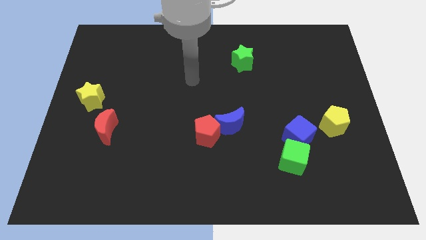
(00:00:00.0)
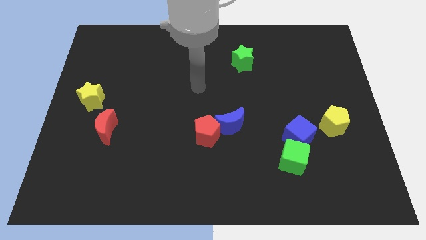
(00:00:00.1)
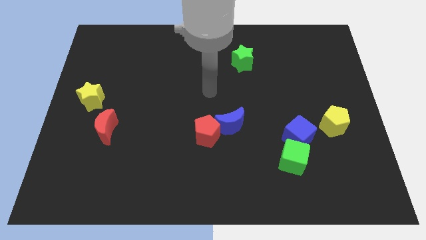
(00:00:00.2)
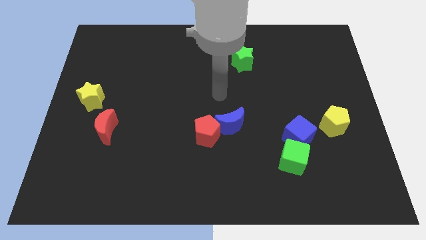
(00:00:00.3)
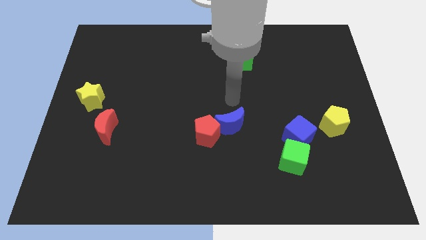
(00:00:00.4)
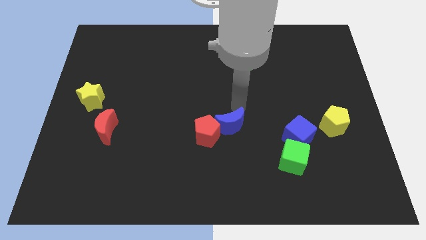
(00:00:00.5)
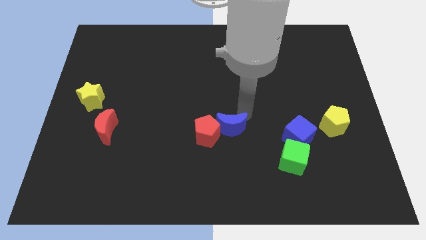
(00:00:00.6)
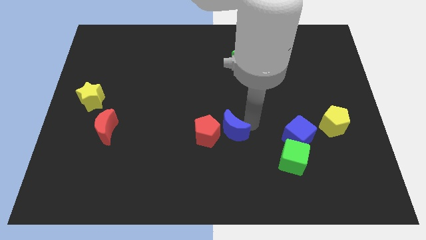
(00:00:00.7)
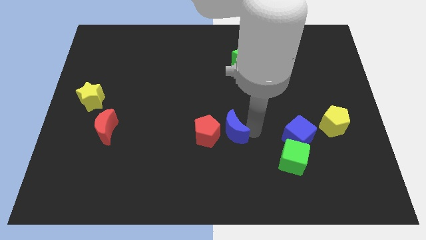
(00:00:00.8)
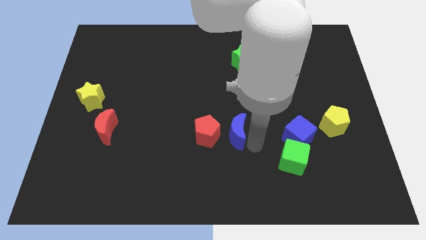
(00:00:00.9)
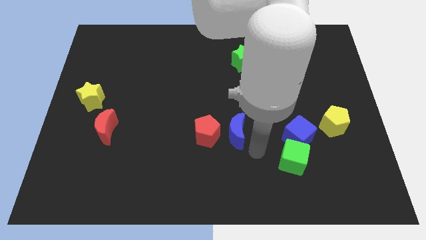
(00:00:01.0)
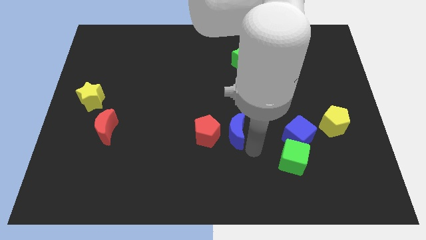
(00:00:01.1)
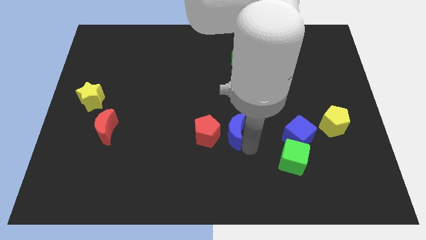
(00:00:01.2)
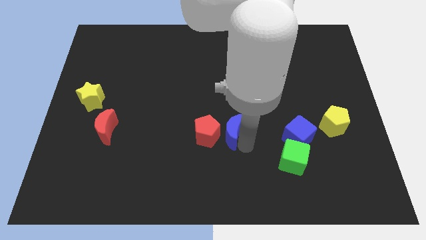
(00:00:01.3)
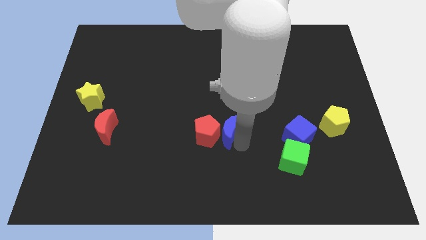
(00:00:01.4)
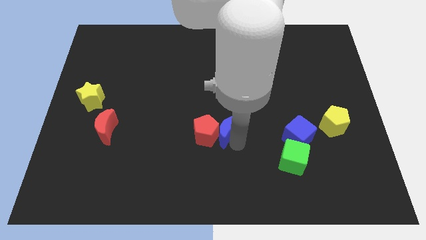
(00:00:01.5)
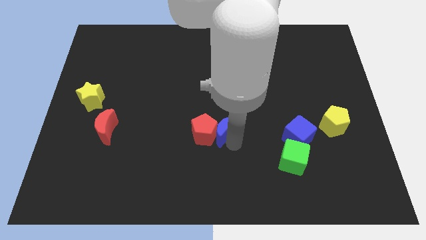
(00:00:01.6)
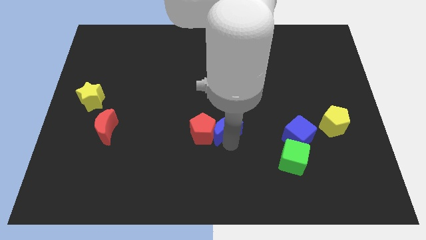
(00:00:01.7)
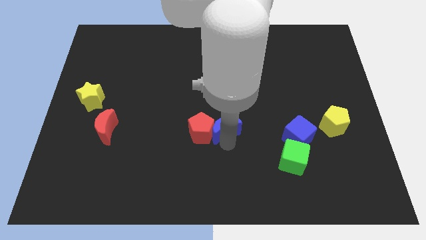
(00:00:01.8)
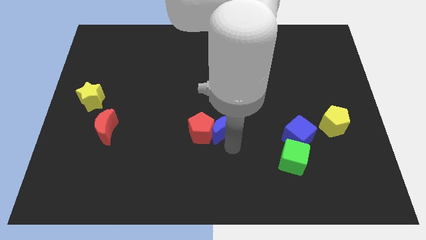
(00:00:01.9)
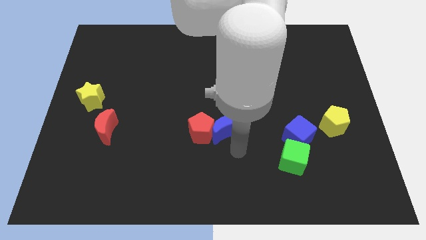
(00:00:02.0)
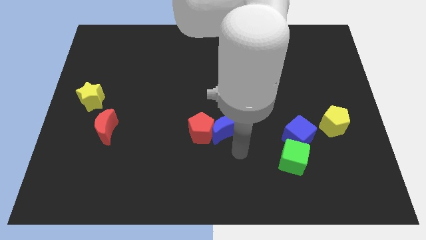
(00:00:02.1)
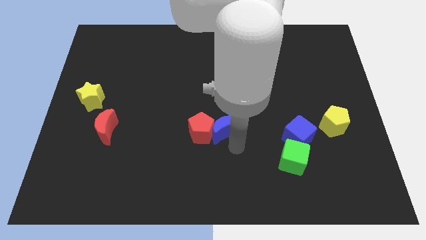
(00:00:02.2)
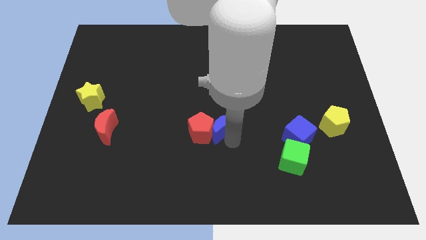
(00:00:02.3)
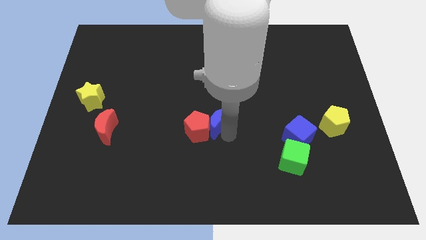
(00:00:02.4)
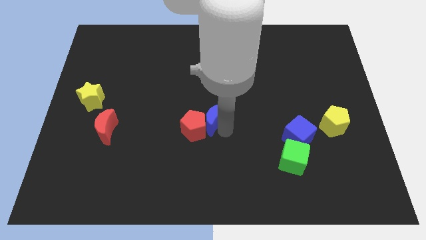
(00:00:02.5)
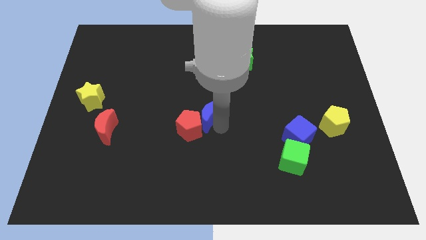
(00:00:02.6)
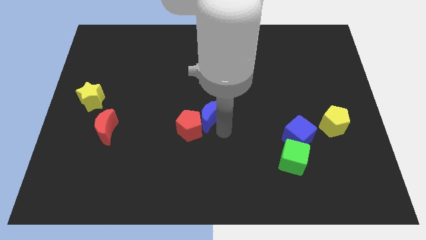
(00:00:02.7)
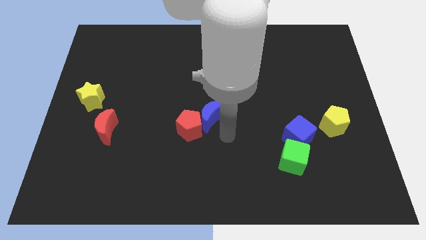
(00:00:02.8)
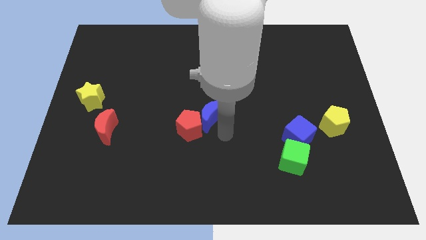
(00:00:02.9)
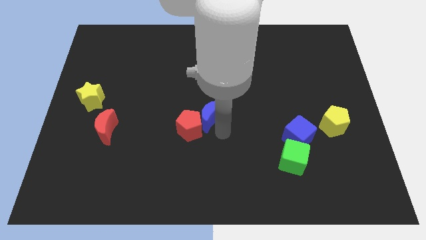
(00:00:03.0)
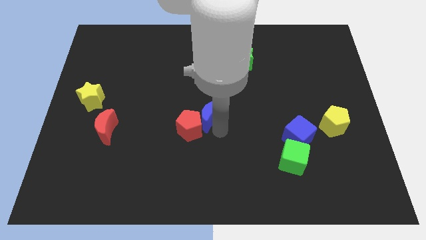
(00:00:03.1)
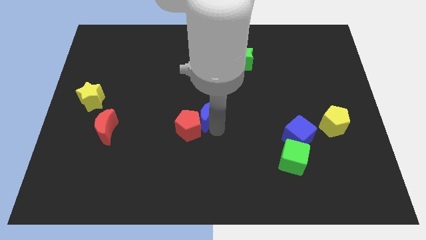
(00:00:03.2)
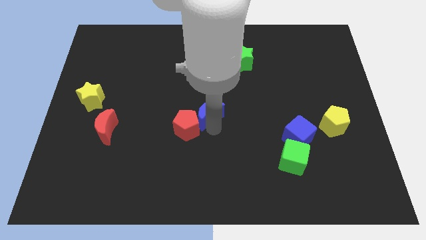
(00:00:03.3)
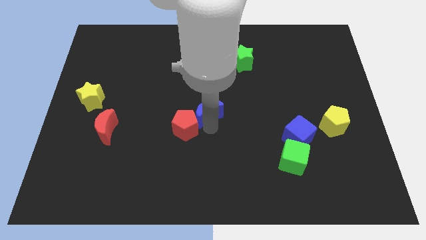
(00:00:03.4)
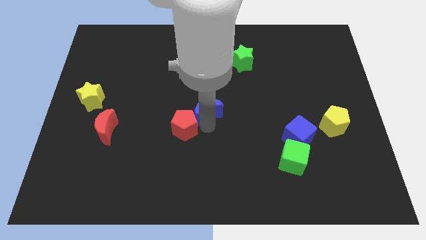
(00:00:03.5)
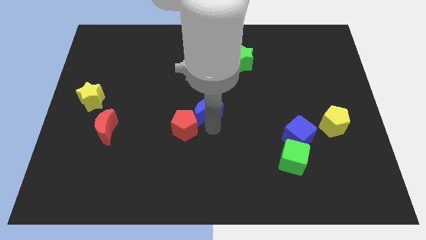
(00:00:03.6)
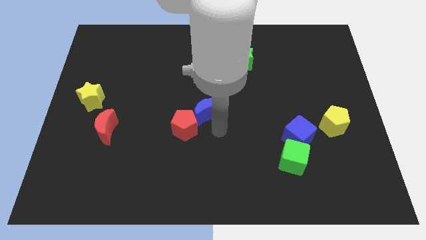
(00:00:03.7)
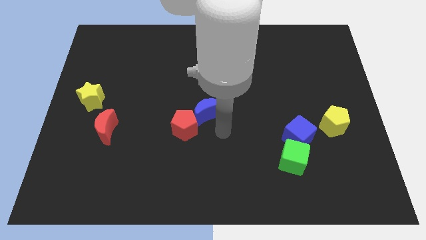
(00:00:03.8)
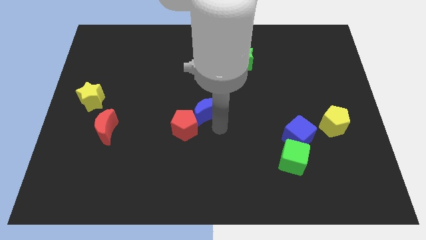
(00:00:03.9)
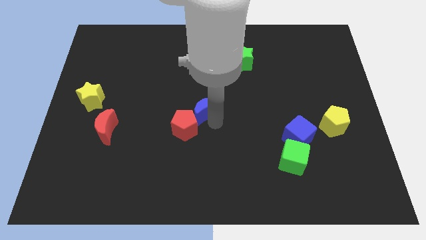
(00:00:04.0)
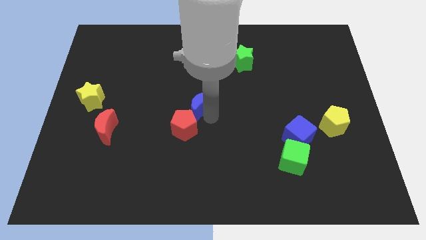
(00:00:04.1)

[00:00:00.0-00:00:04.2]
slightly push the blue moon upwards and then to the left

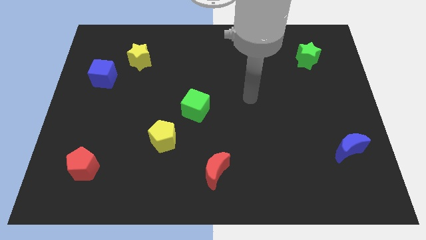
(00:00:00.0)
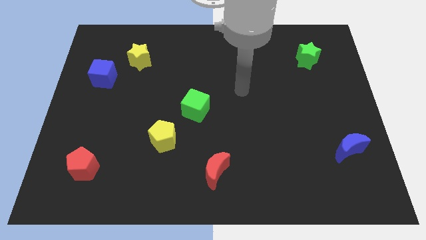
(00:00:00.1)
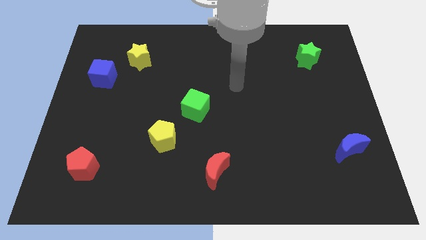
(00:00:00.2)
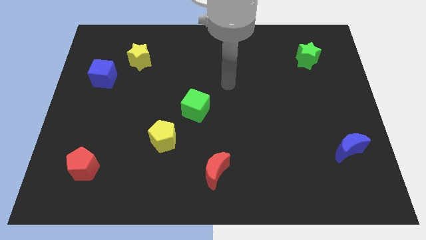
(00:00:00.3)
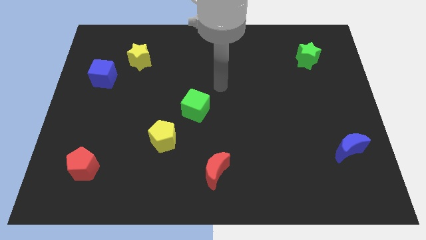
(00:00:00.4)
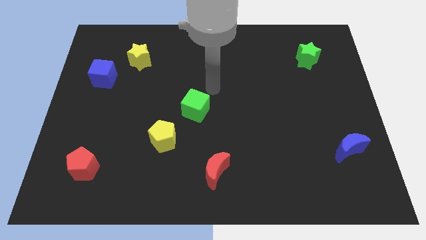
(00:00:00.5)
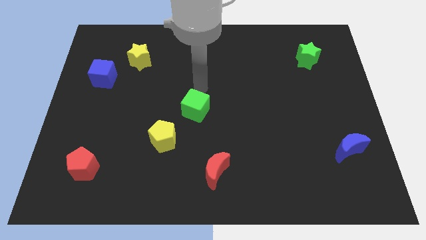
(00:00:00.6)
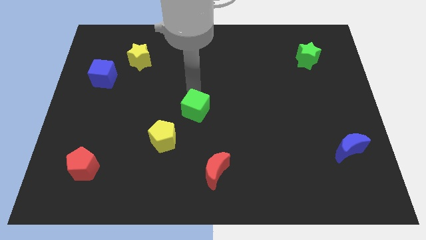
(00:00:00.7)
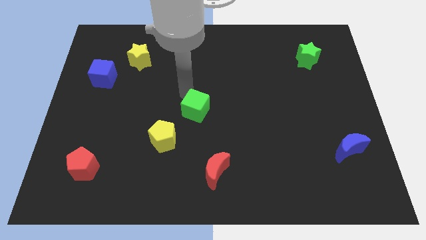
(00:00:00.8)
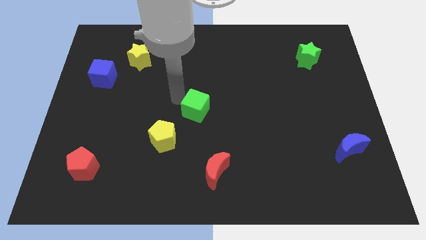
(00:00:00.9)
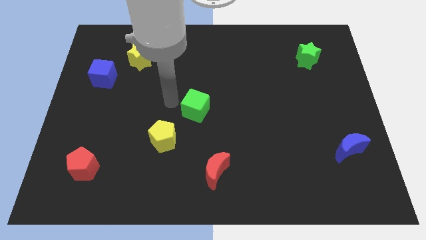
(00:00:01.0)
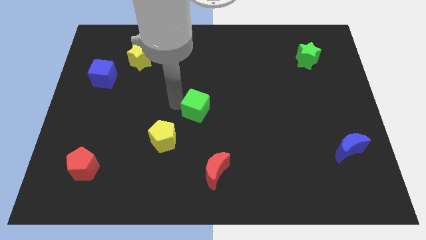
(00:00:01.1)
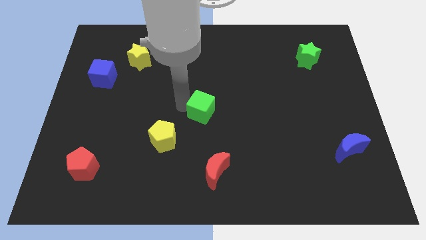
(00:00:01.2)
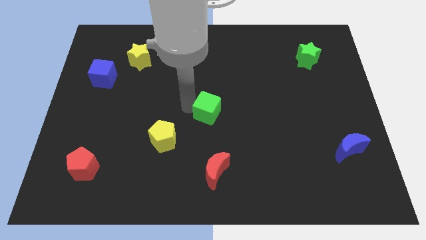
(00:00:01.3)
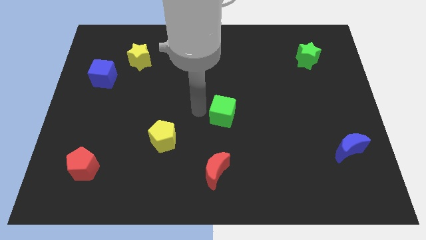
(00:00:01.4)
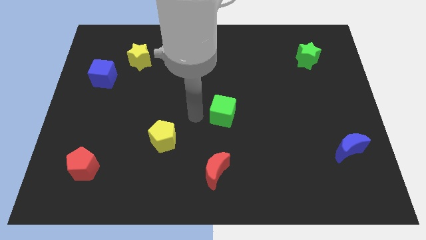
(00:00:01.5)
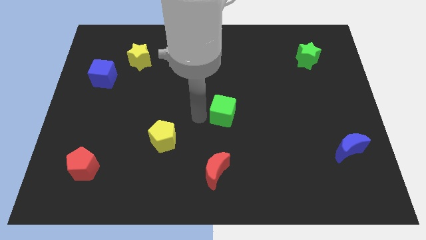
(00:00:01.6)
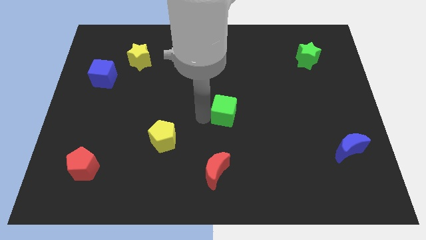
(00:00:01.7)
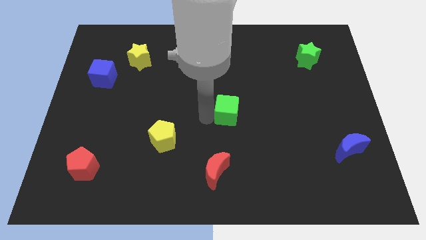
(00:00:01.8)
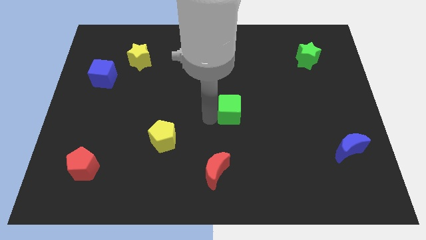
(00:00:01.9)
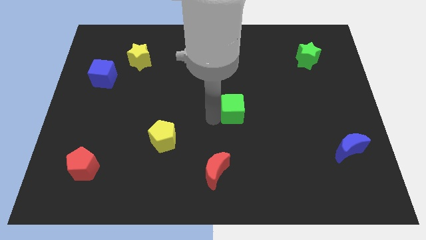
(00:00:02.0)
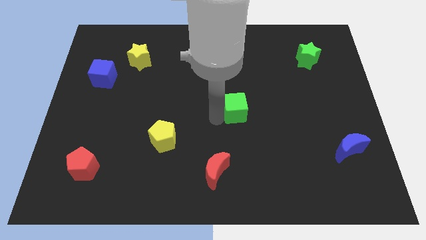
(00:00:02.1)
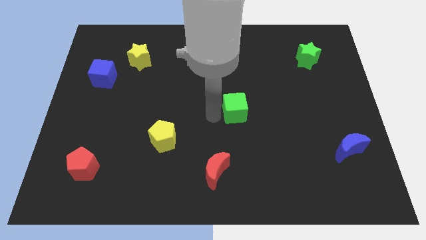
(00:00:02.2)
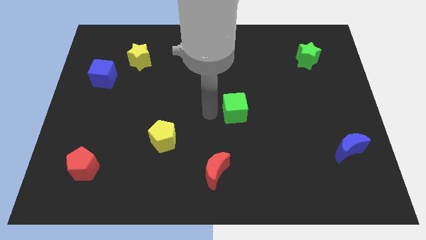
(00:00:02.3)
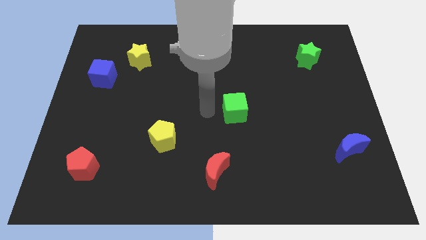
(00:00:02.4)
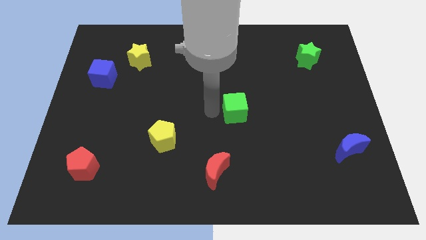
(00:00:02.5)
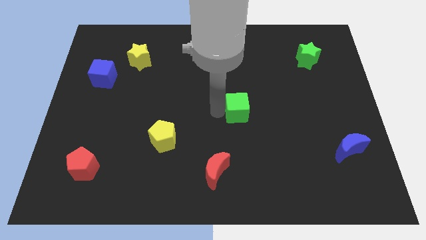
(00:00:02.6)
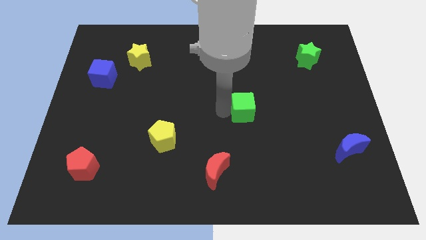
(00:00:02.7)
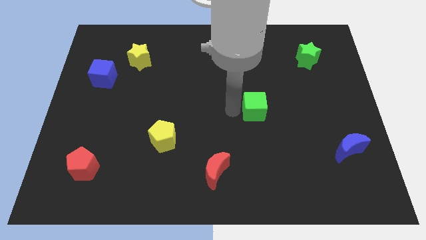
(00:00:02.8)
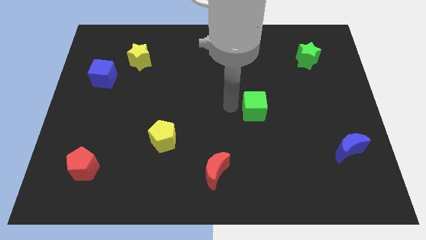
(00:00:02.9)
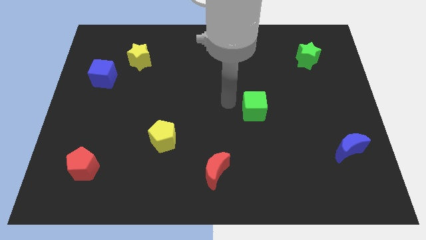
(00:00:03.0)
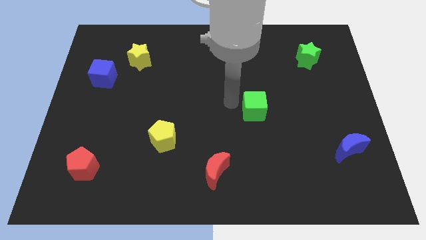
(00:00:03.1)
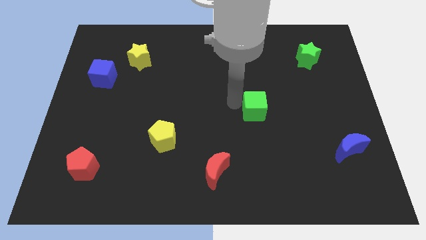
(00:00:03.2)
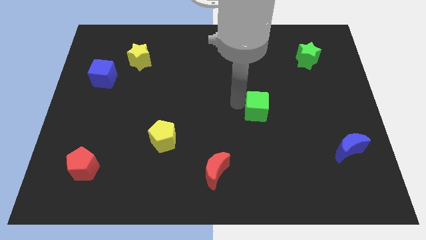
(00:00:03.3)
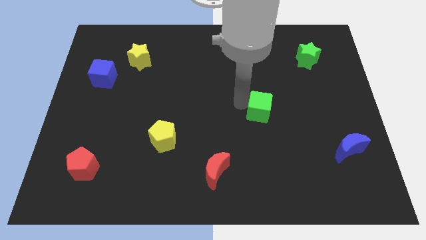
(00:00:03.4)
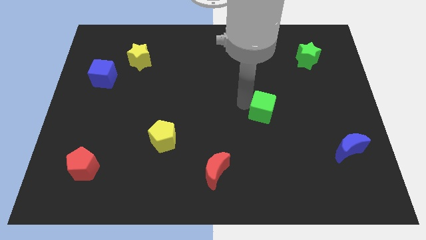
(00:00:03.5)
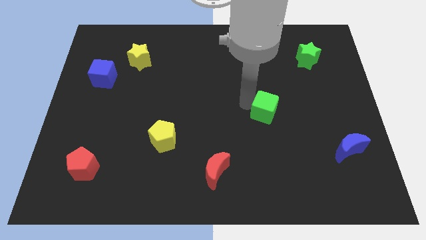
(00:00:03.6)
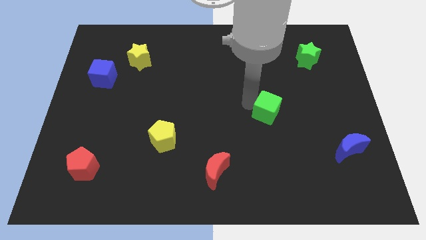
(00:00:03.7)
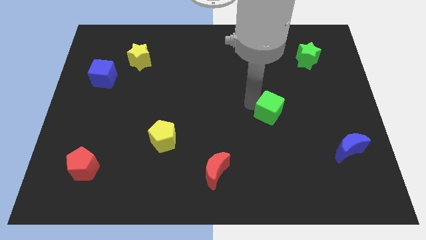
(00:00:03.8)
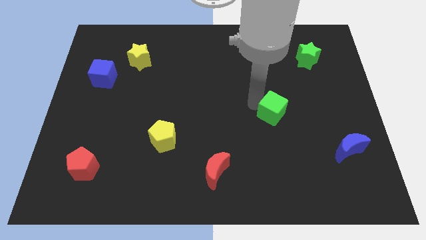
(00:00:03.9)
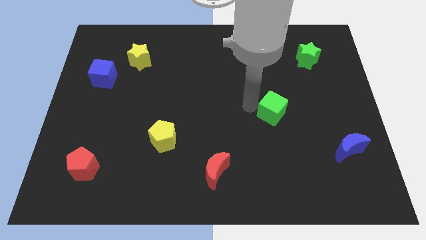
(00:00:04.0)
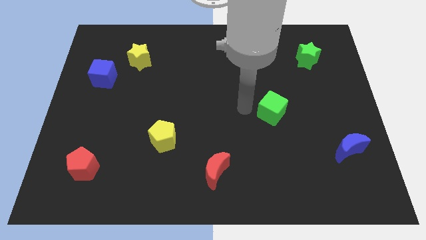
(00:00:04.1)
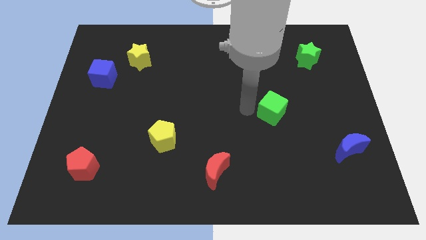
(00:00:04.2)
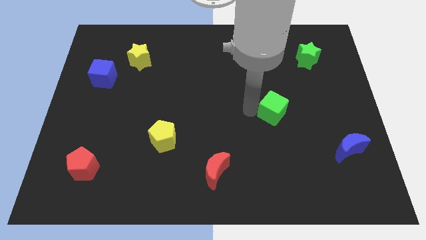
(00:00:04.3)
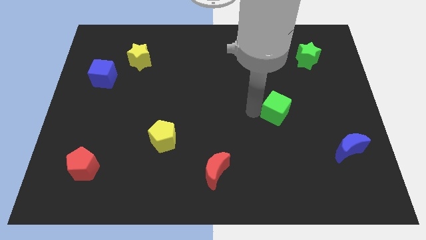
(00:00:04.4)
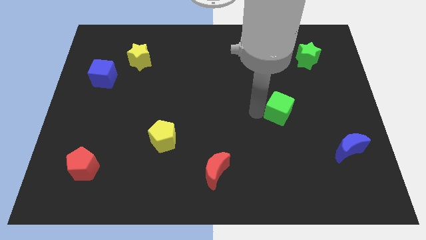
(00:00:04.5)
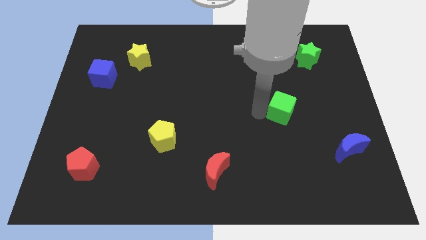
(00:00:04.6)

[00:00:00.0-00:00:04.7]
slide the green cube to the right
